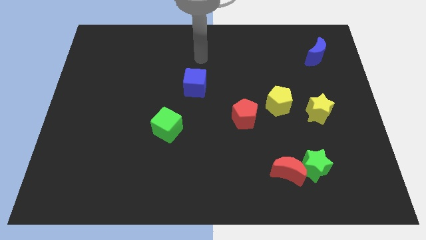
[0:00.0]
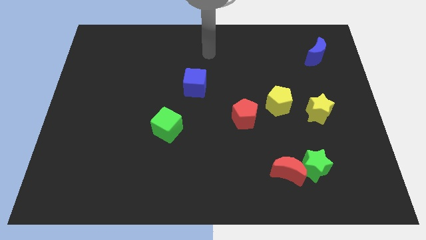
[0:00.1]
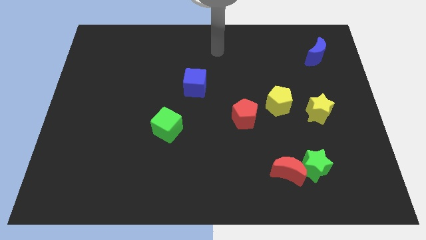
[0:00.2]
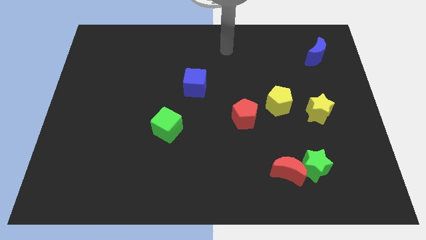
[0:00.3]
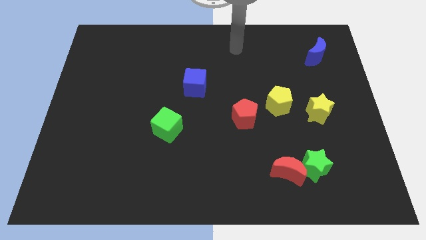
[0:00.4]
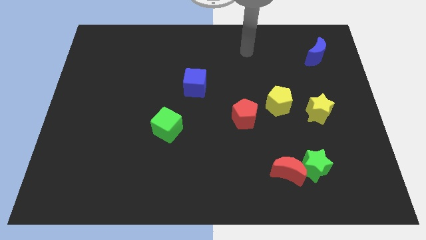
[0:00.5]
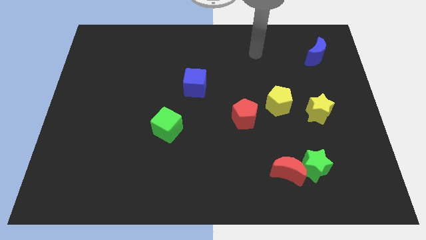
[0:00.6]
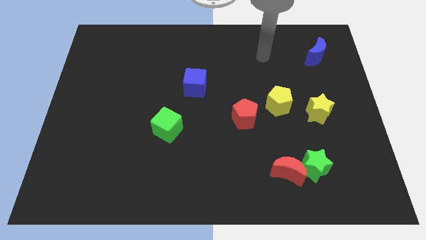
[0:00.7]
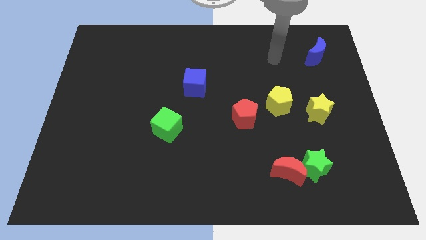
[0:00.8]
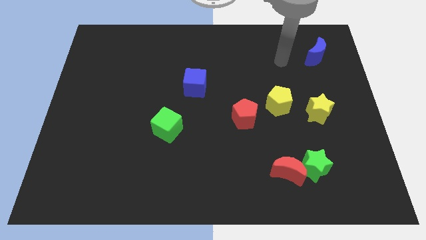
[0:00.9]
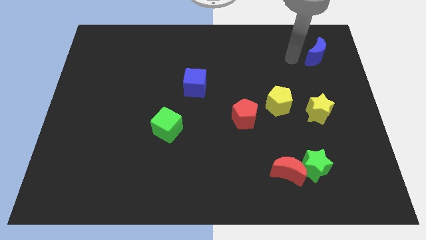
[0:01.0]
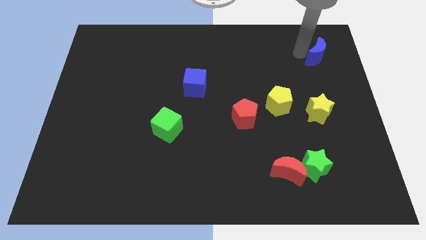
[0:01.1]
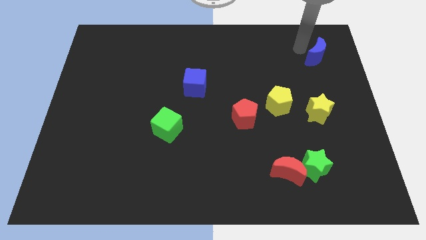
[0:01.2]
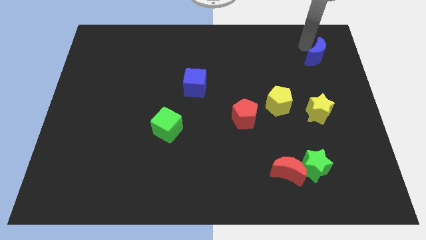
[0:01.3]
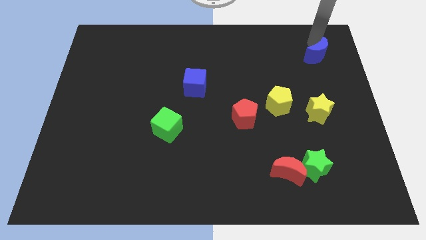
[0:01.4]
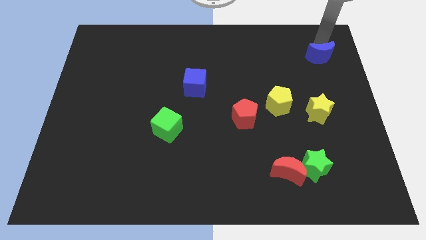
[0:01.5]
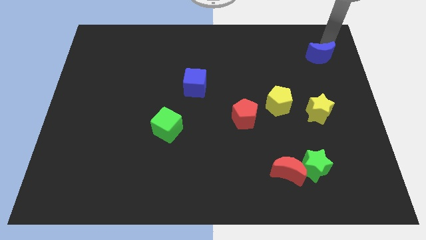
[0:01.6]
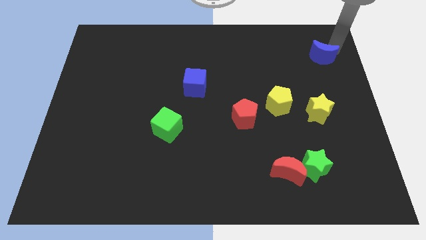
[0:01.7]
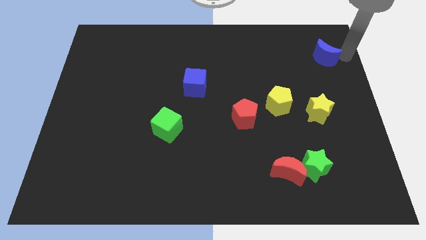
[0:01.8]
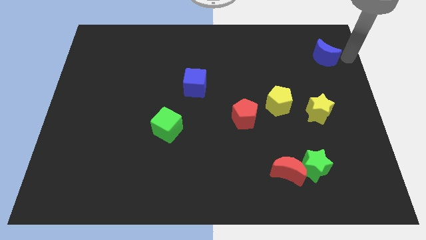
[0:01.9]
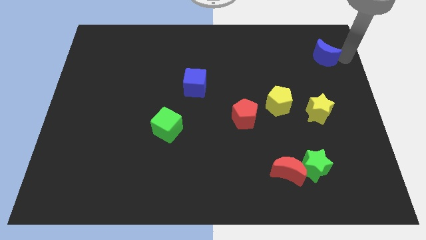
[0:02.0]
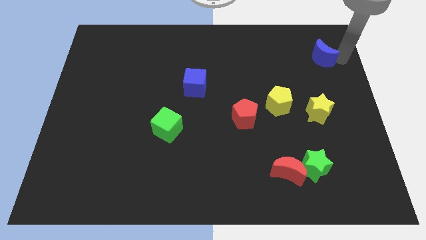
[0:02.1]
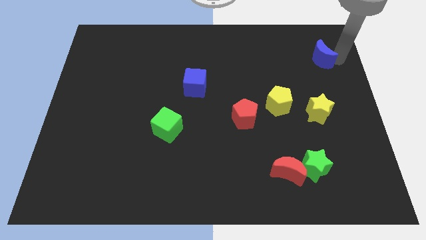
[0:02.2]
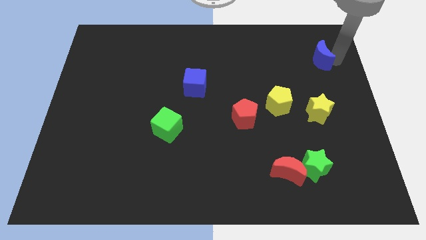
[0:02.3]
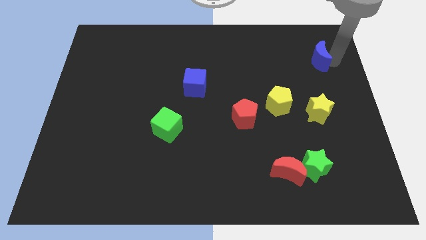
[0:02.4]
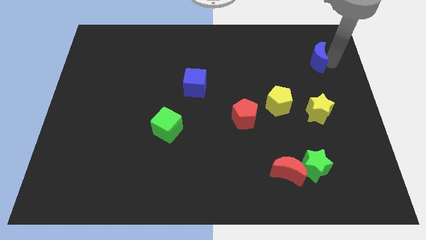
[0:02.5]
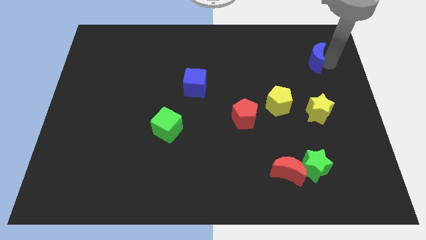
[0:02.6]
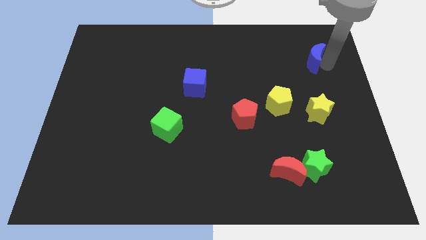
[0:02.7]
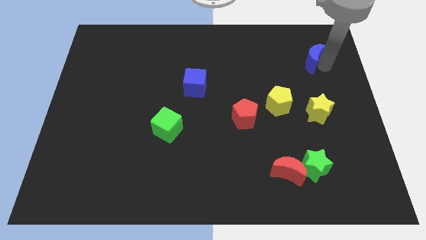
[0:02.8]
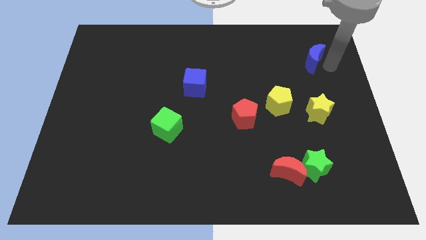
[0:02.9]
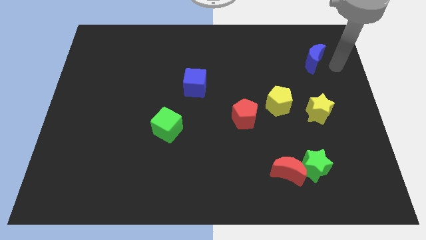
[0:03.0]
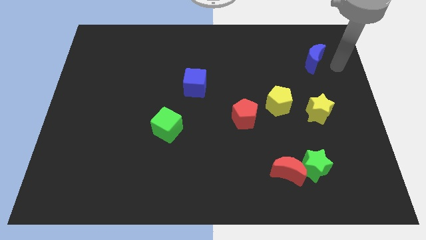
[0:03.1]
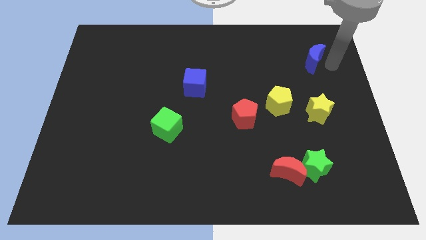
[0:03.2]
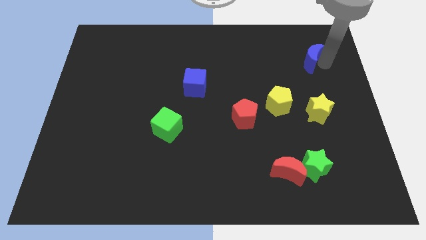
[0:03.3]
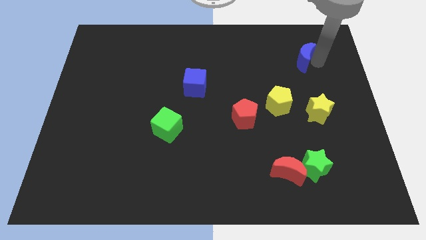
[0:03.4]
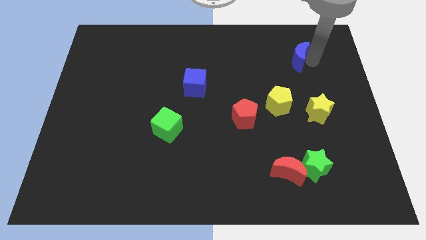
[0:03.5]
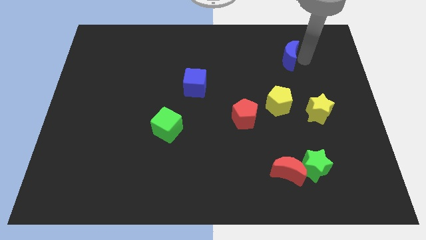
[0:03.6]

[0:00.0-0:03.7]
slide the blue moon slightly to the left

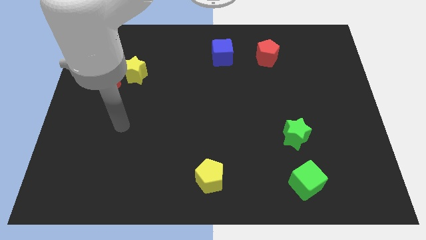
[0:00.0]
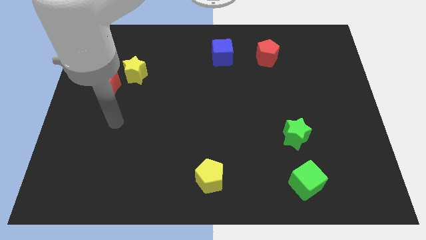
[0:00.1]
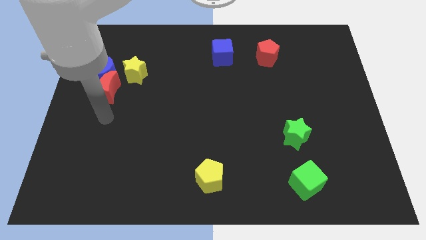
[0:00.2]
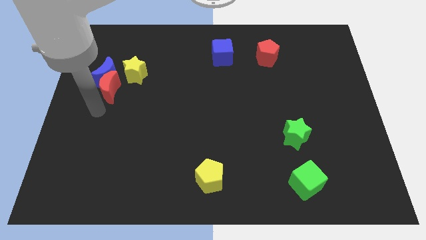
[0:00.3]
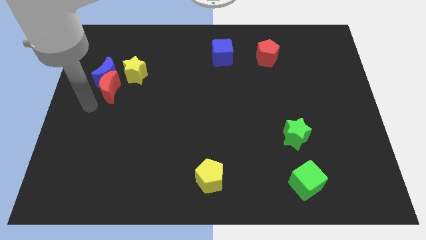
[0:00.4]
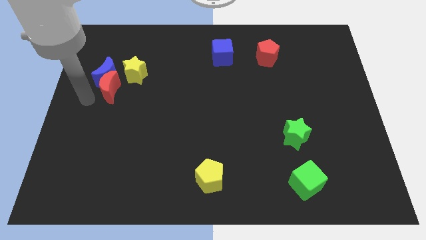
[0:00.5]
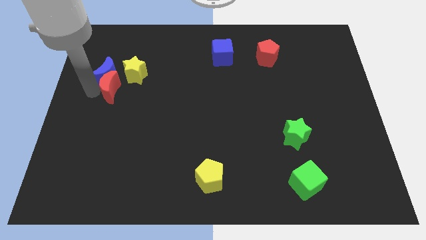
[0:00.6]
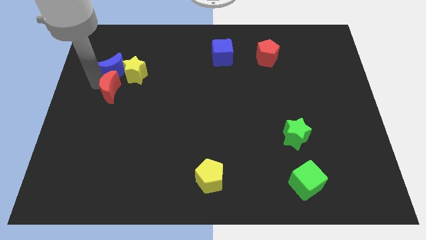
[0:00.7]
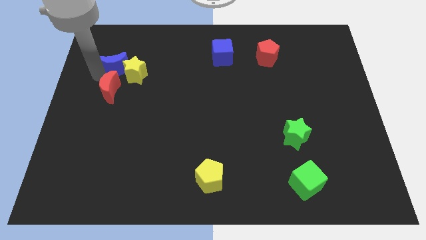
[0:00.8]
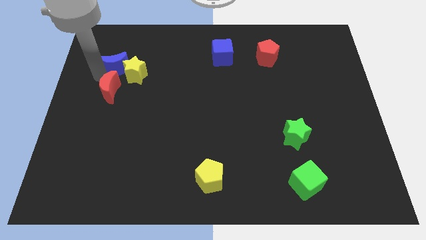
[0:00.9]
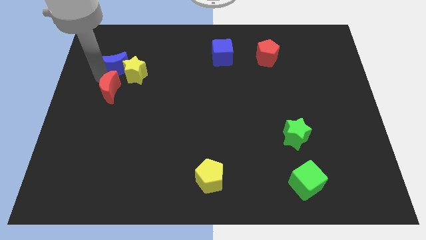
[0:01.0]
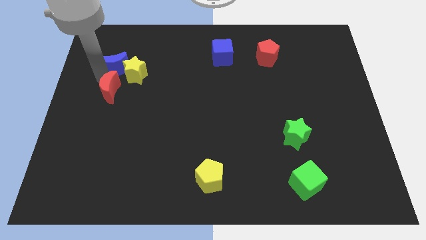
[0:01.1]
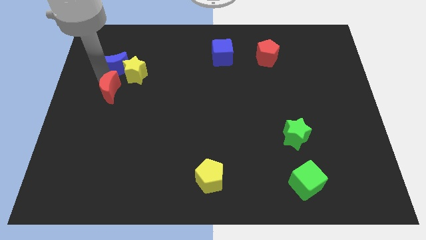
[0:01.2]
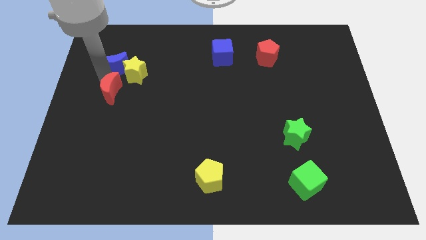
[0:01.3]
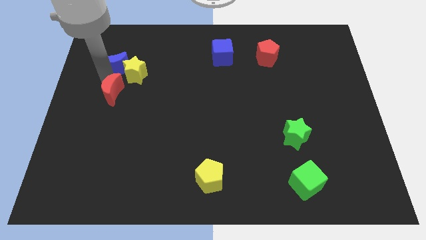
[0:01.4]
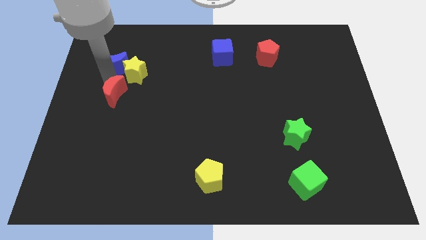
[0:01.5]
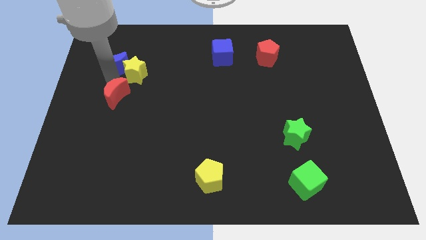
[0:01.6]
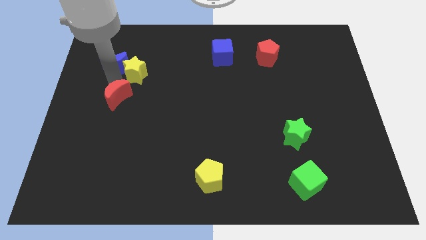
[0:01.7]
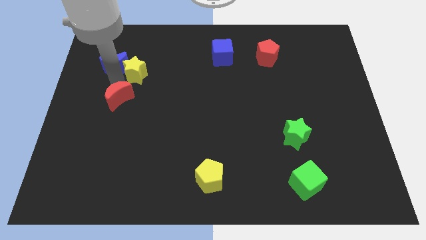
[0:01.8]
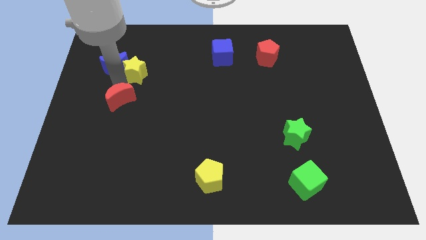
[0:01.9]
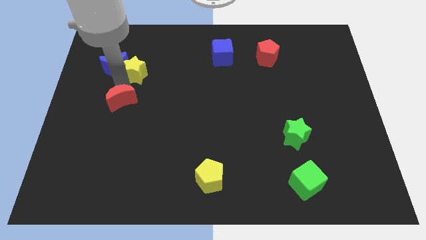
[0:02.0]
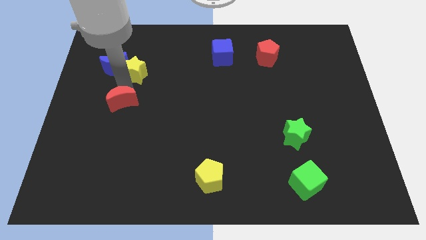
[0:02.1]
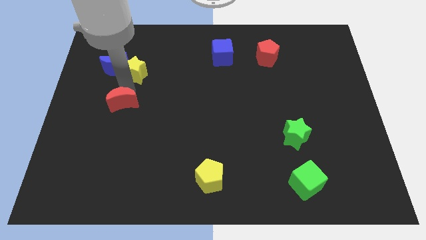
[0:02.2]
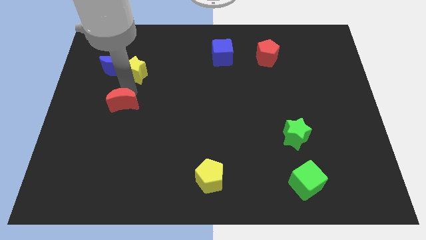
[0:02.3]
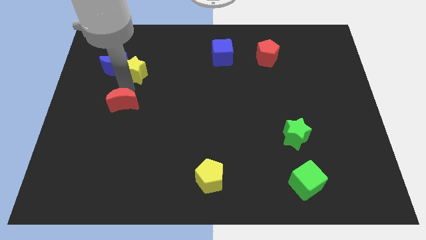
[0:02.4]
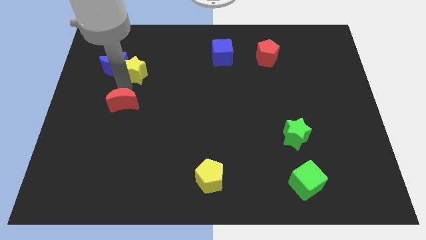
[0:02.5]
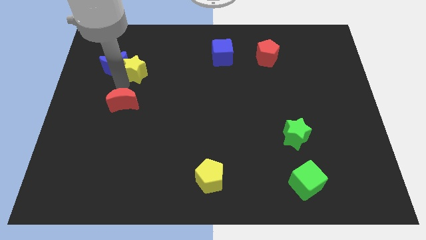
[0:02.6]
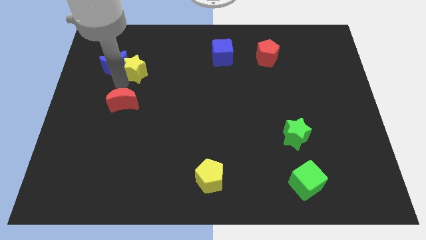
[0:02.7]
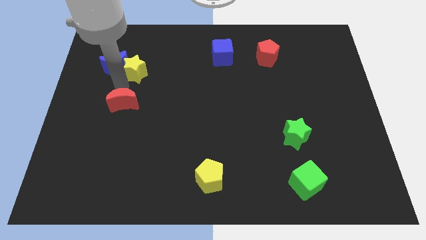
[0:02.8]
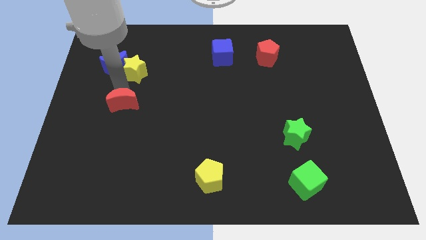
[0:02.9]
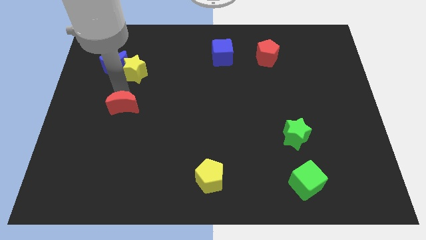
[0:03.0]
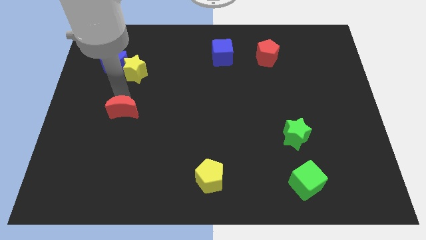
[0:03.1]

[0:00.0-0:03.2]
slightly slide the red moon diagonally down and to the right

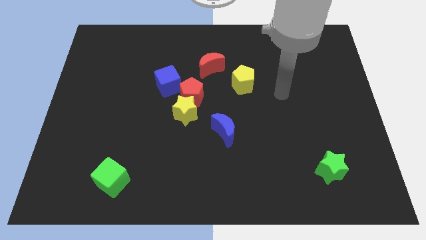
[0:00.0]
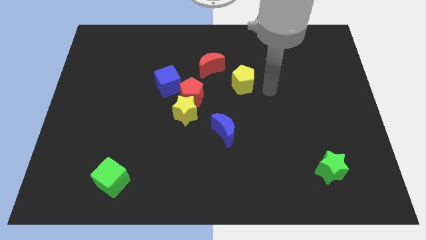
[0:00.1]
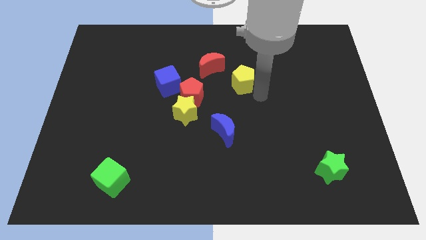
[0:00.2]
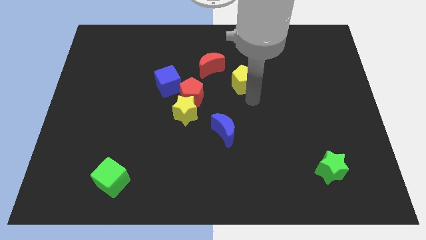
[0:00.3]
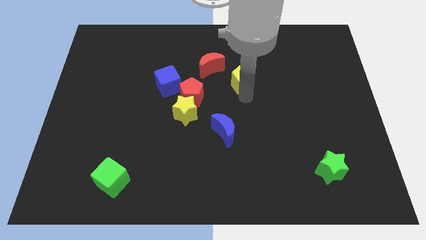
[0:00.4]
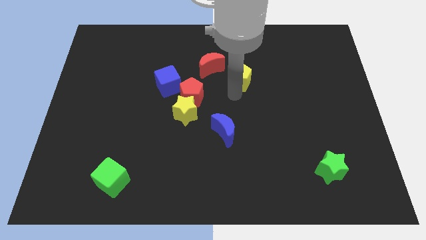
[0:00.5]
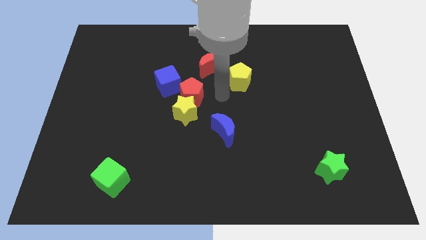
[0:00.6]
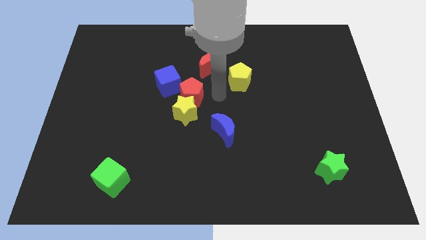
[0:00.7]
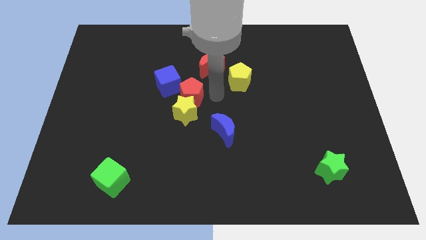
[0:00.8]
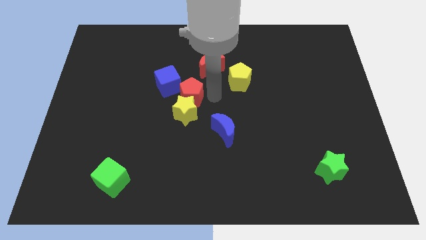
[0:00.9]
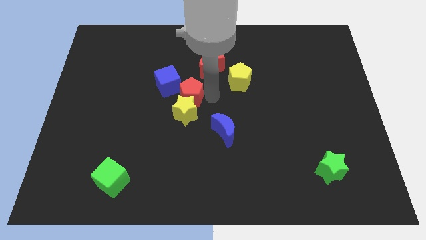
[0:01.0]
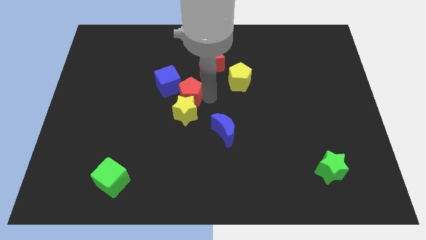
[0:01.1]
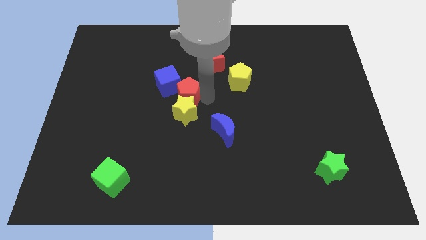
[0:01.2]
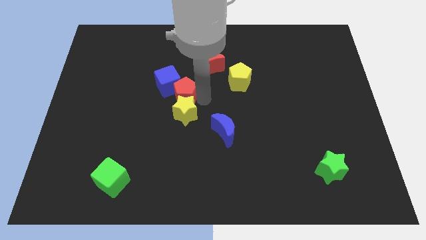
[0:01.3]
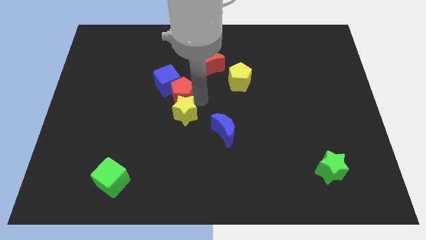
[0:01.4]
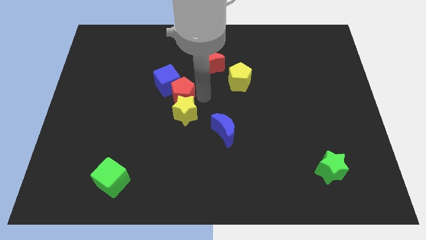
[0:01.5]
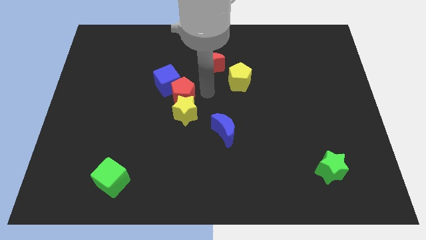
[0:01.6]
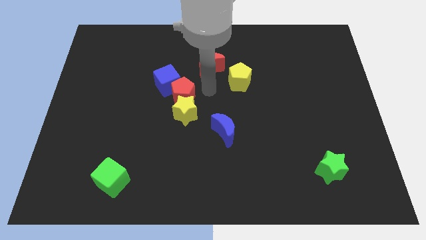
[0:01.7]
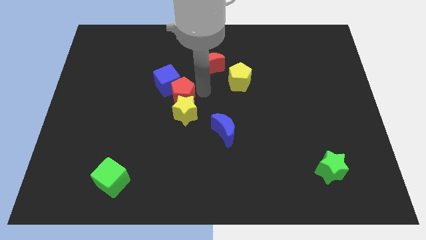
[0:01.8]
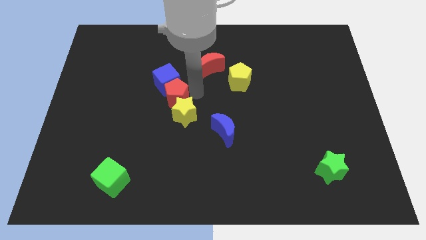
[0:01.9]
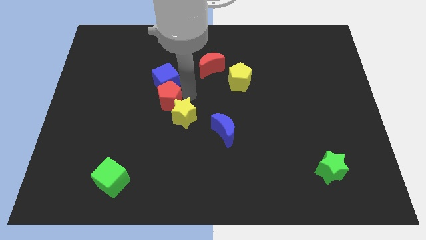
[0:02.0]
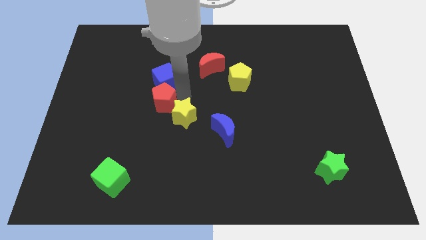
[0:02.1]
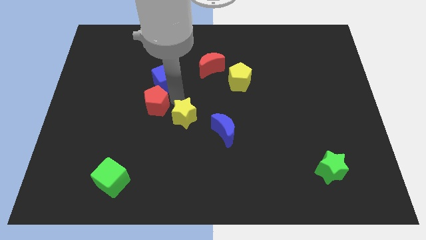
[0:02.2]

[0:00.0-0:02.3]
slightly move the red pentagon to the left
